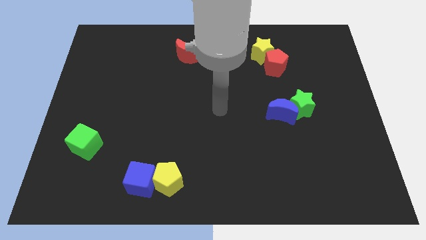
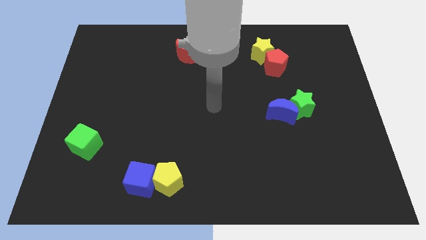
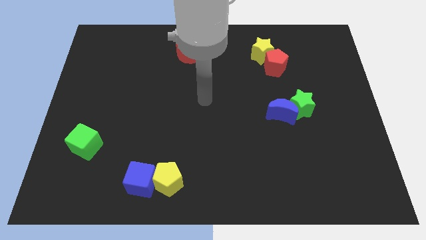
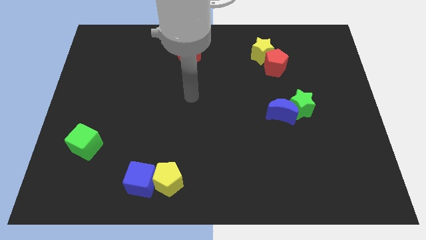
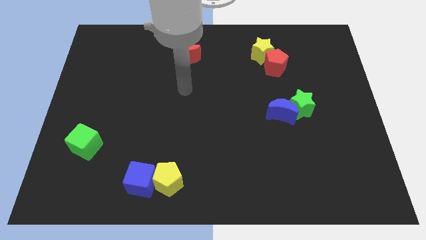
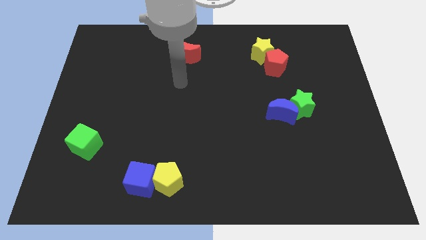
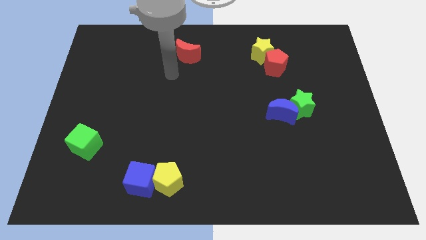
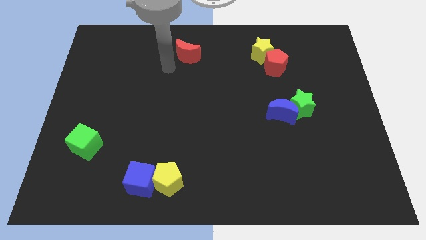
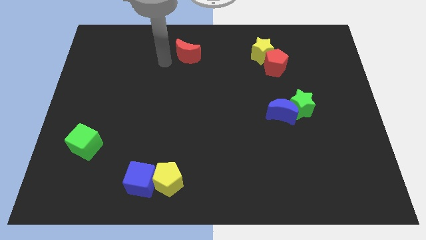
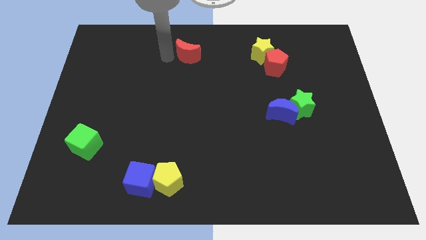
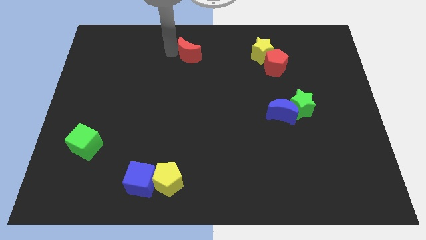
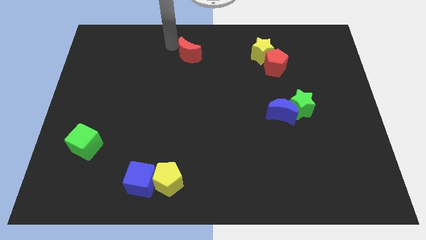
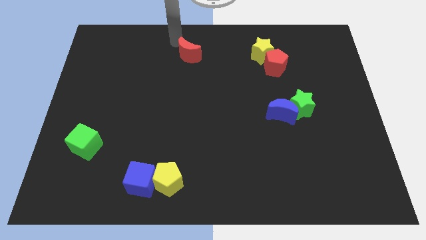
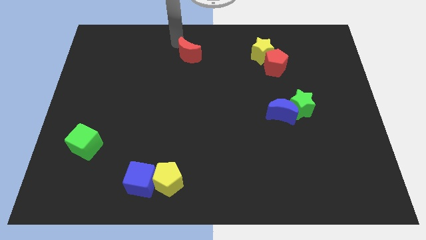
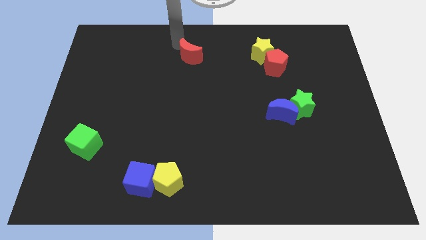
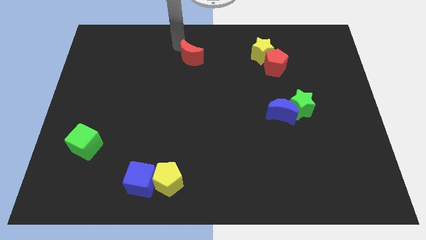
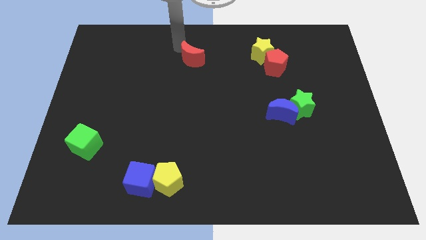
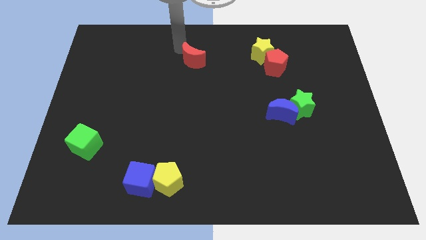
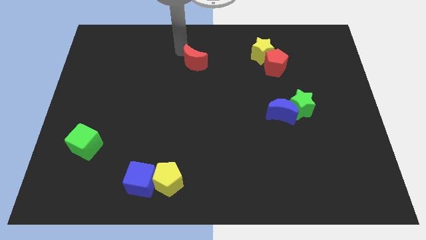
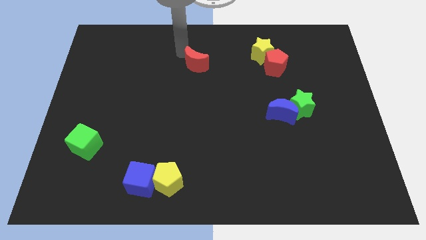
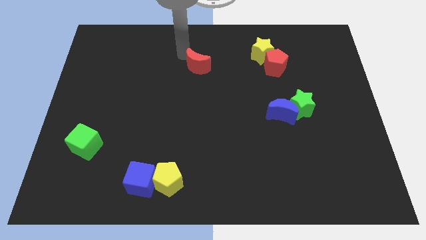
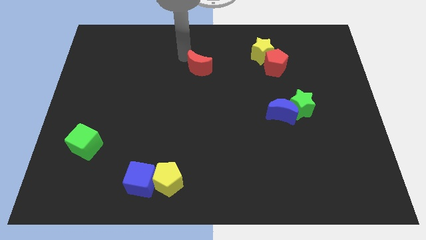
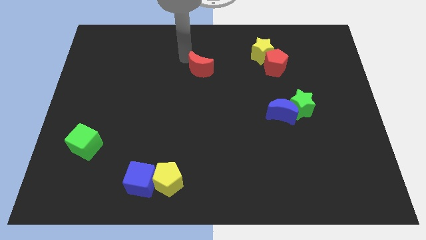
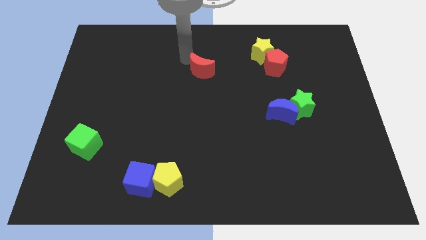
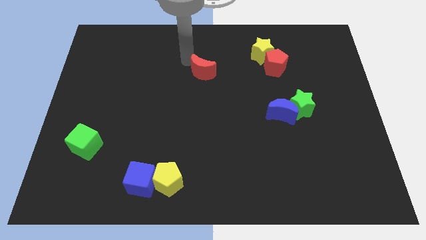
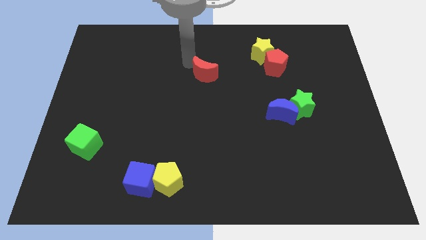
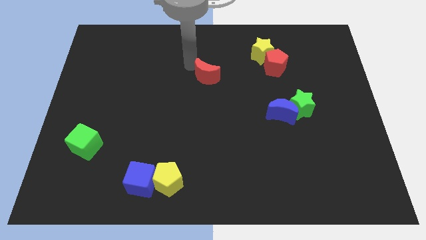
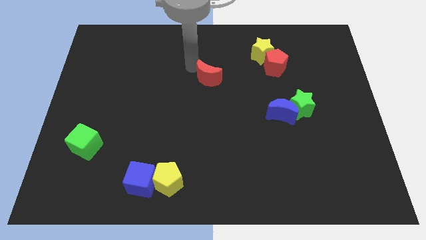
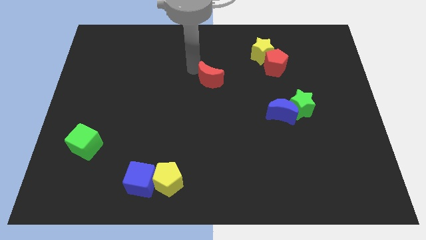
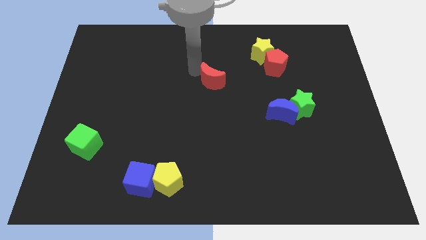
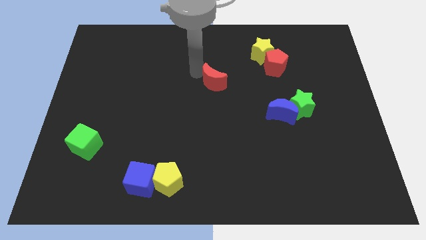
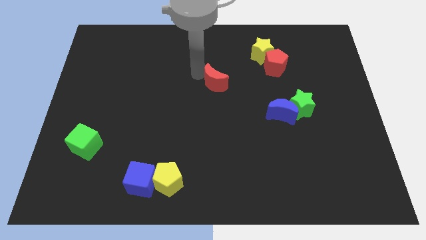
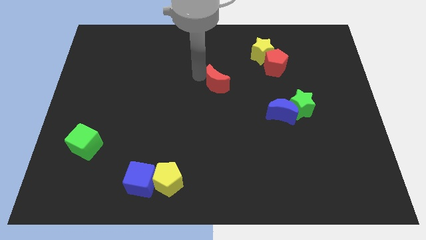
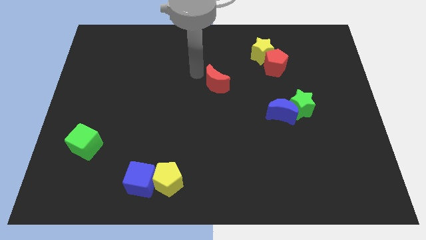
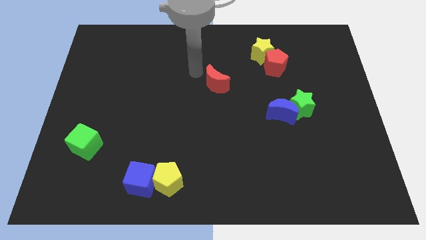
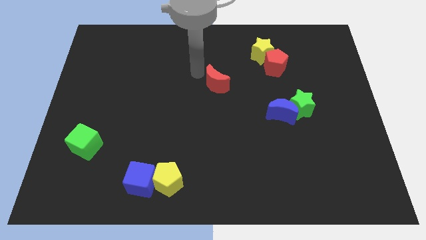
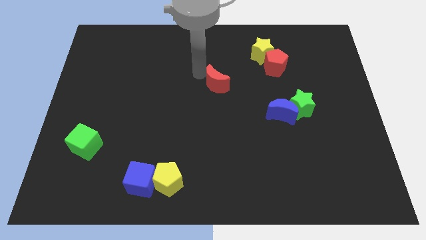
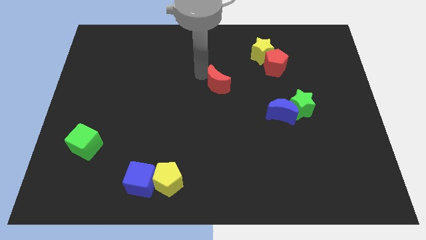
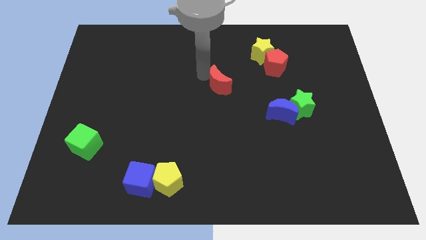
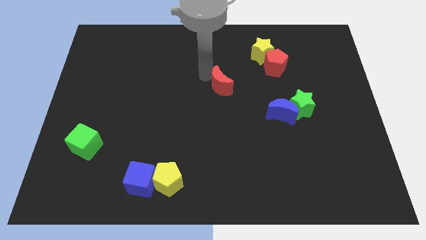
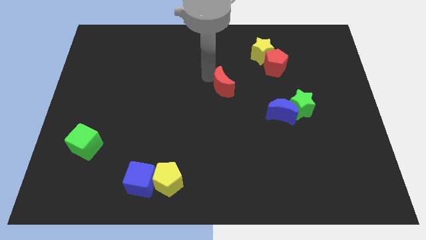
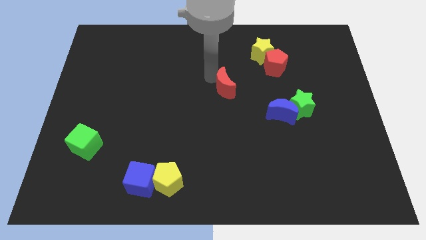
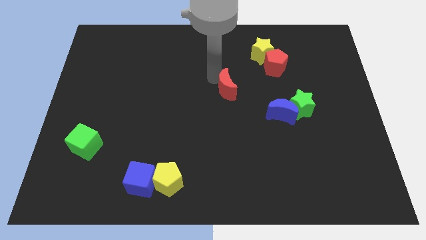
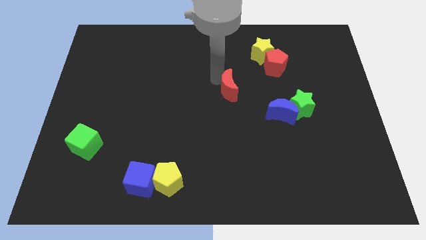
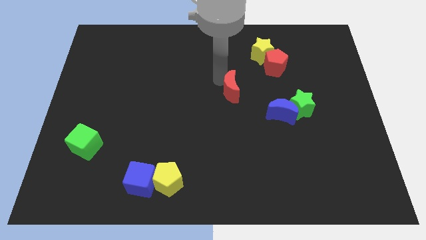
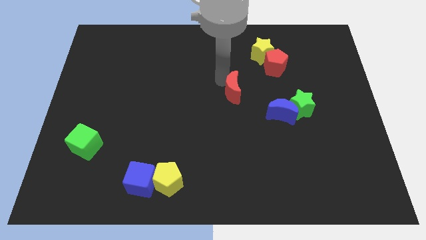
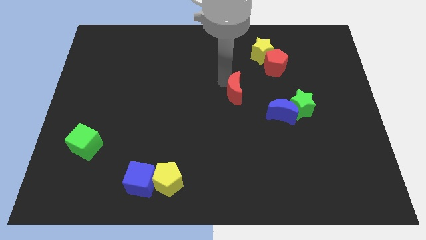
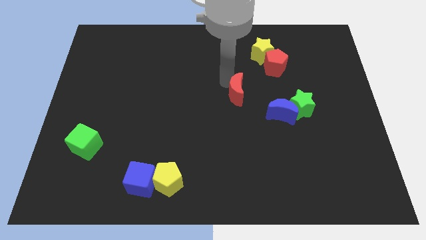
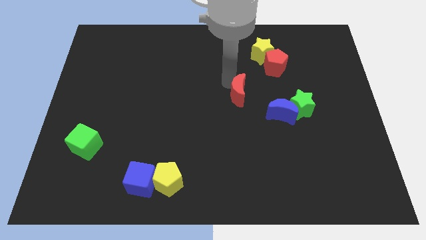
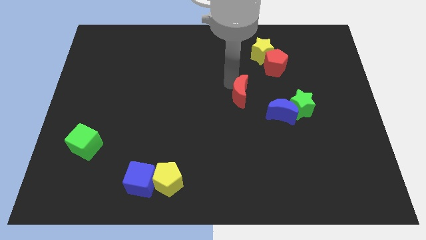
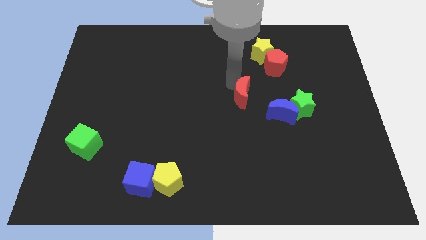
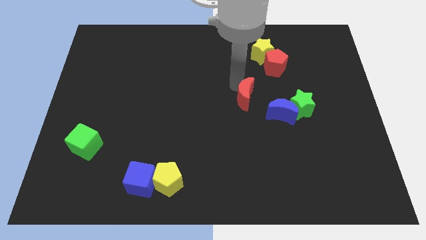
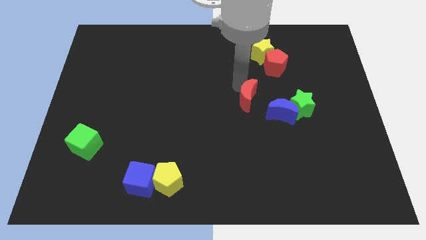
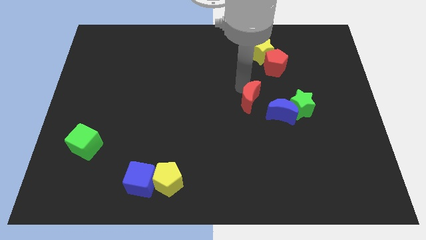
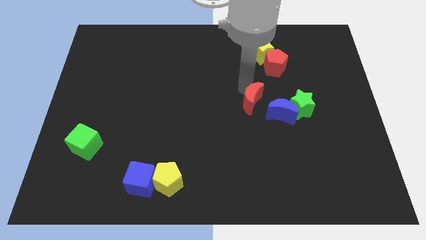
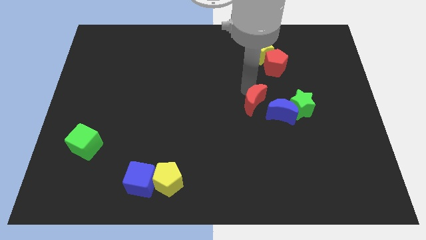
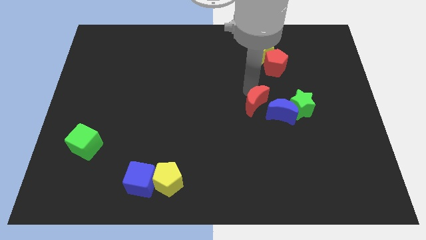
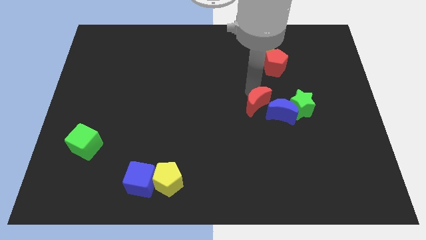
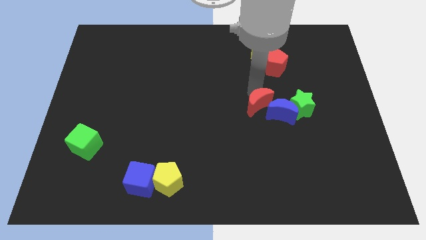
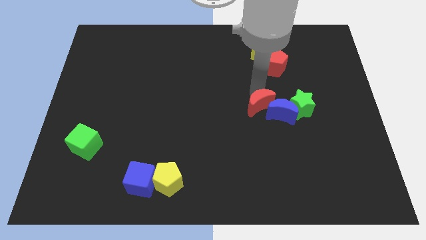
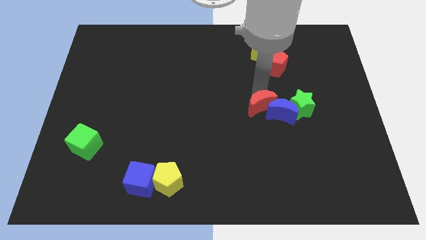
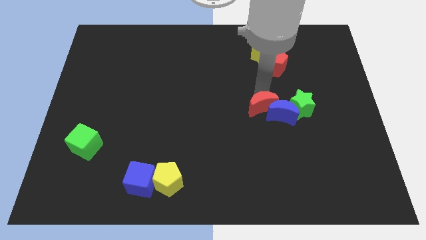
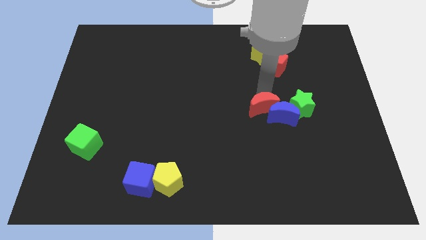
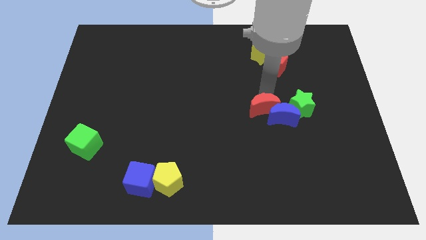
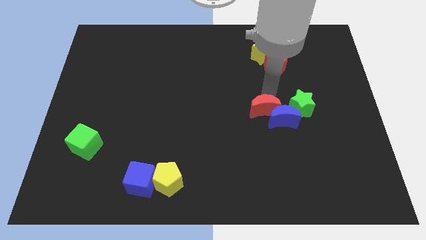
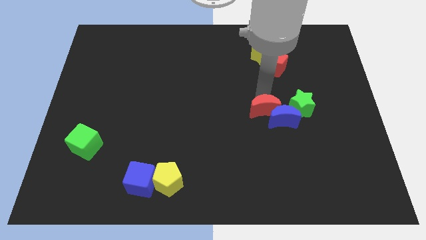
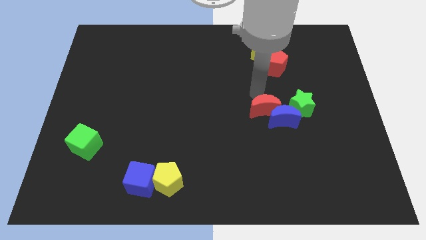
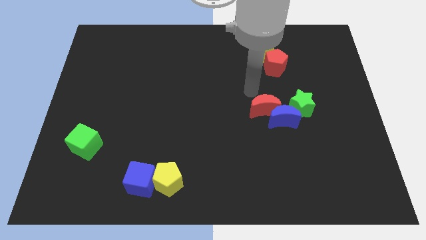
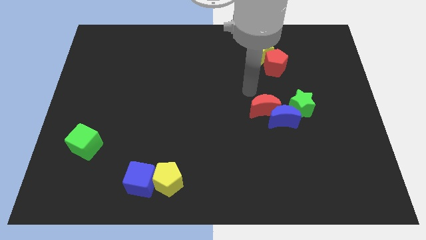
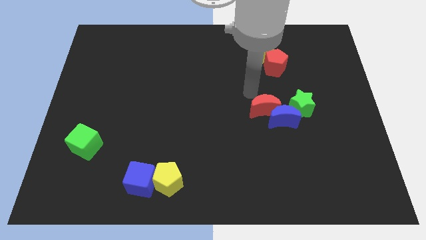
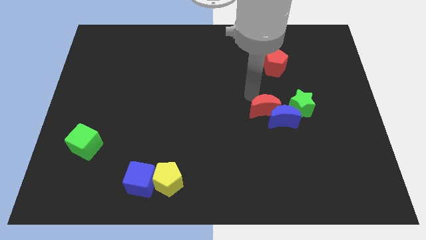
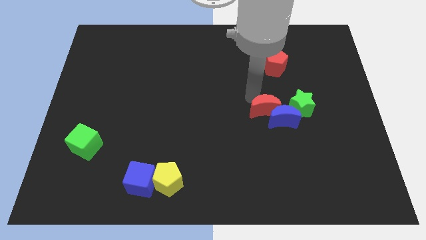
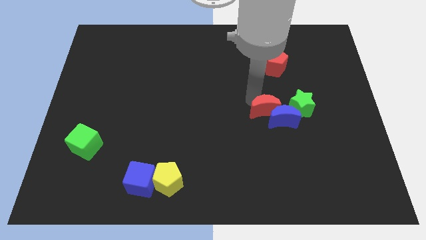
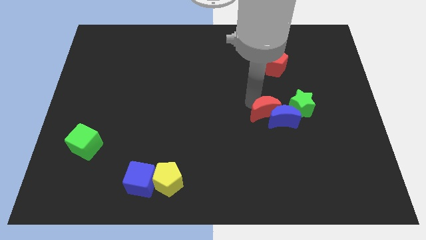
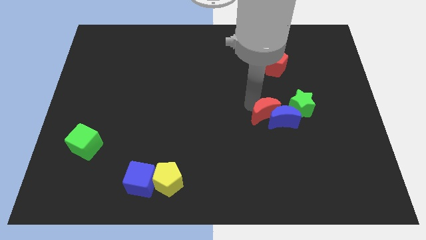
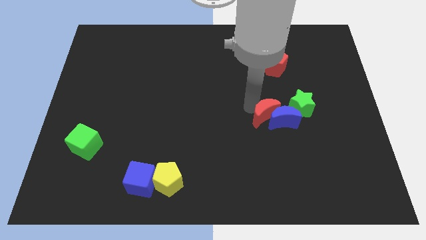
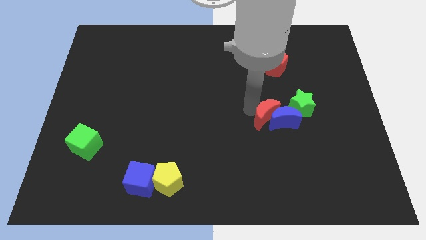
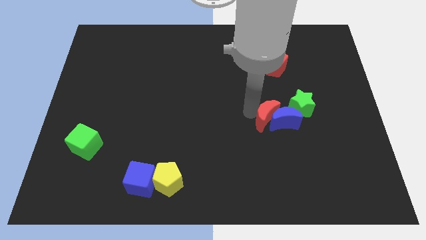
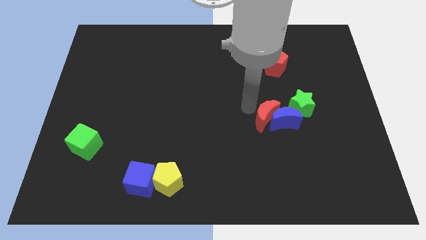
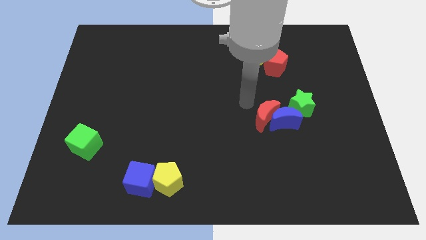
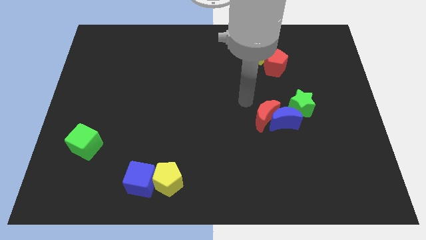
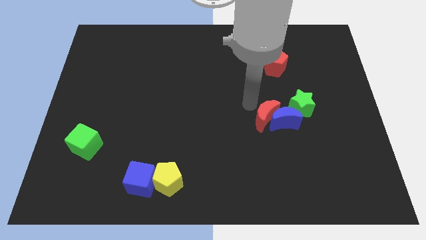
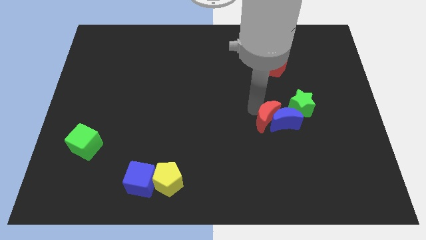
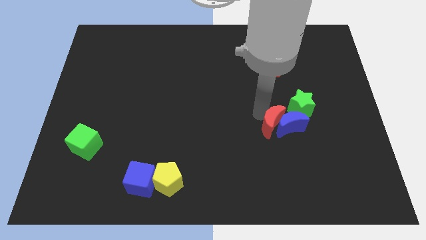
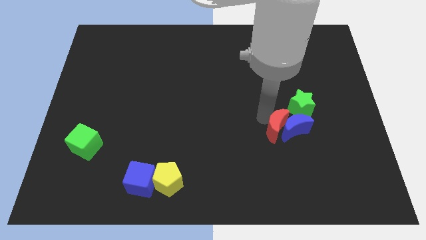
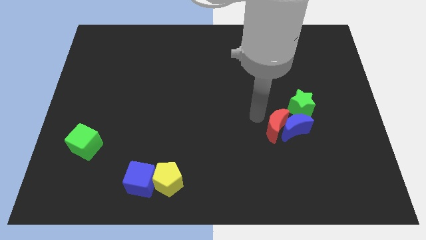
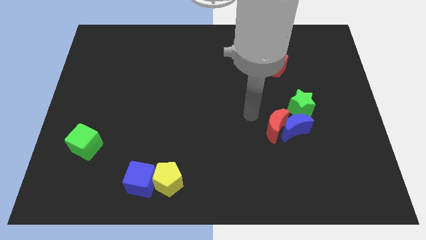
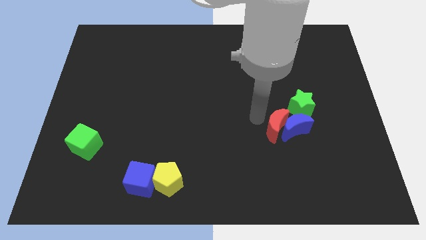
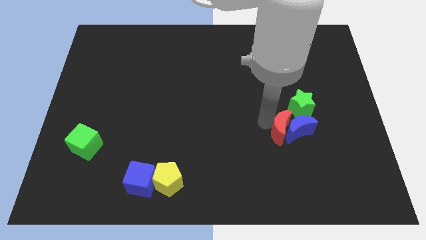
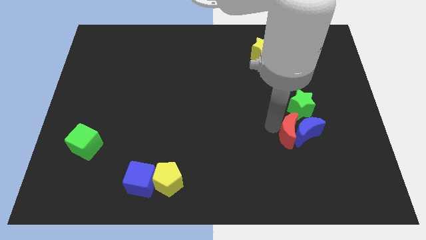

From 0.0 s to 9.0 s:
slide the red moon below the green star
